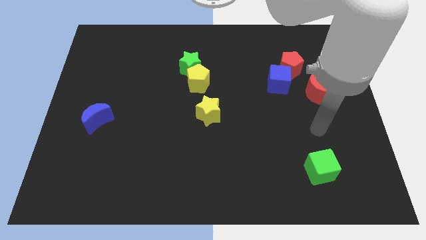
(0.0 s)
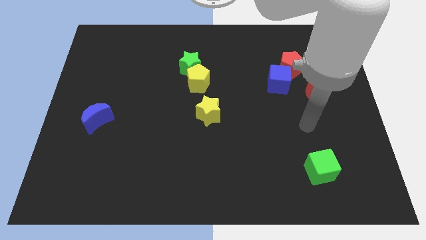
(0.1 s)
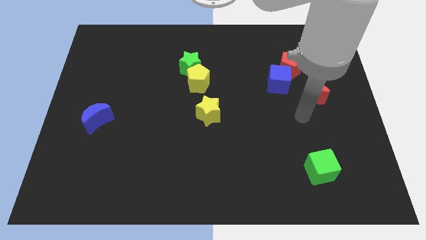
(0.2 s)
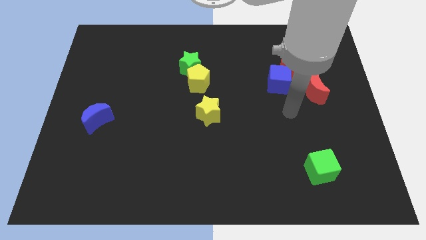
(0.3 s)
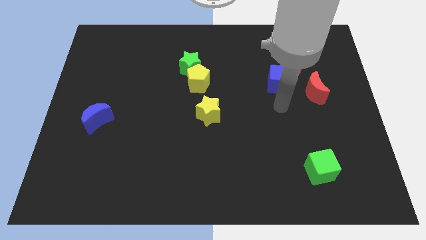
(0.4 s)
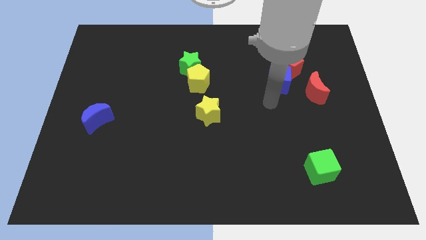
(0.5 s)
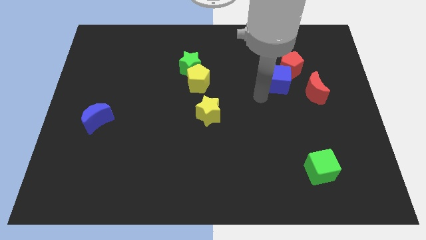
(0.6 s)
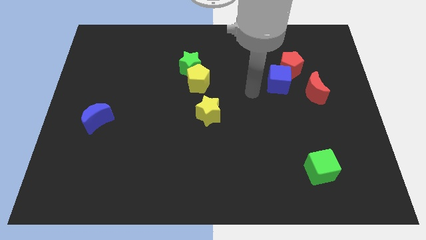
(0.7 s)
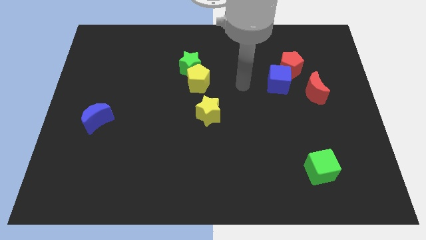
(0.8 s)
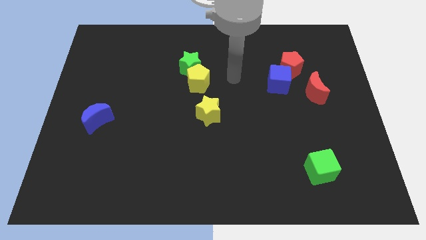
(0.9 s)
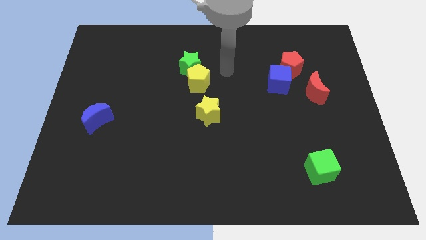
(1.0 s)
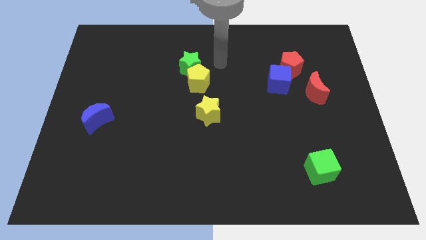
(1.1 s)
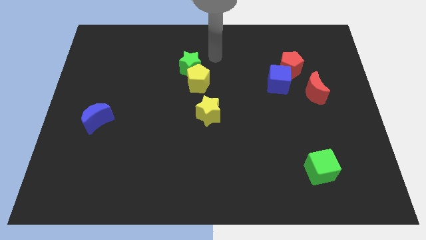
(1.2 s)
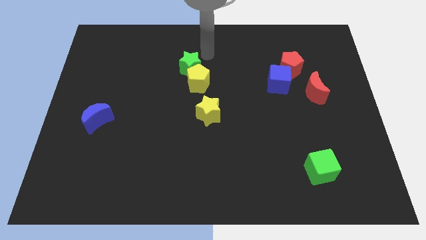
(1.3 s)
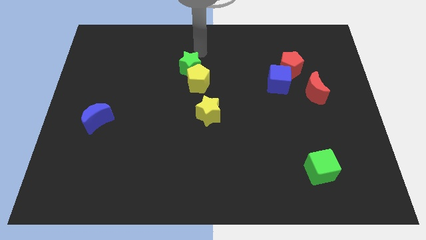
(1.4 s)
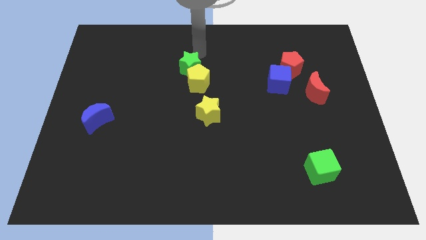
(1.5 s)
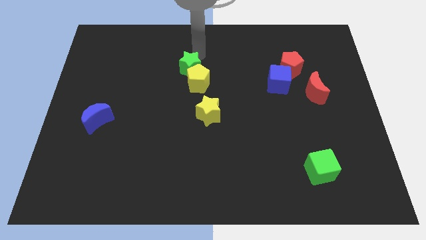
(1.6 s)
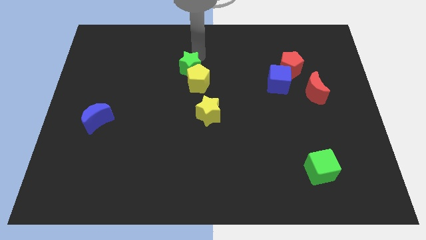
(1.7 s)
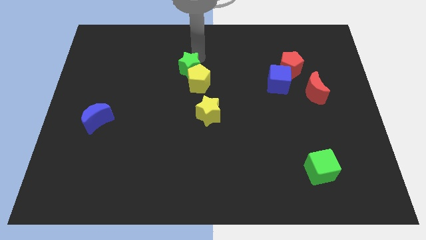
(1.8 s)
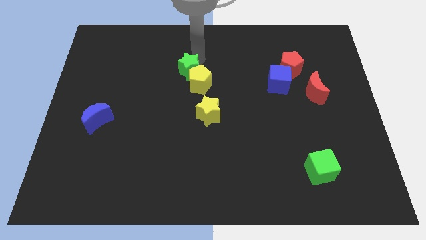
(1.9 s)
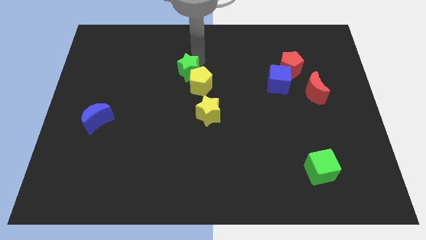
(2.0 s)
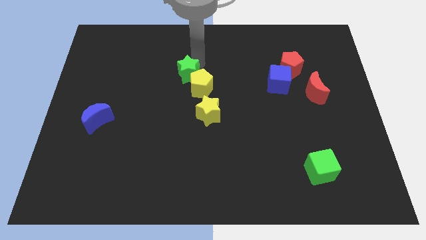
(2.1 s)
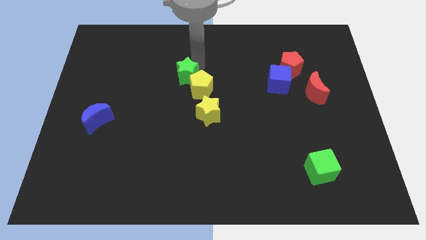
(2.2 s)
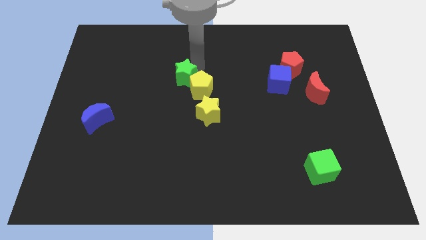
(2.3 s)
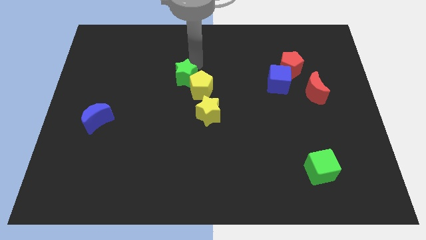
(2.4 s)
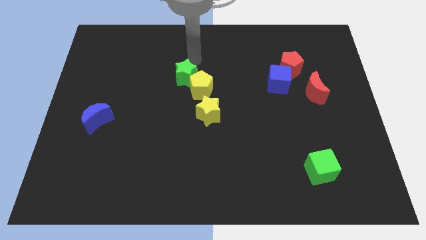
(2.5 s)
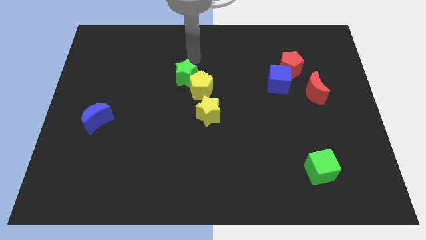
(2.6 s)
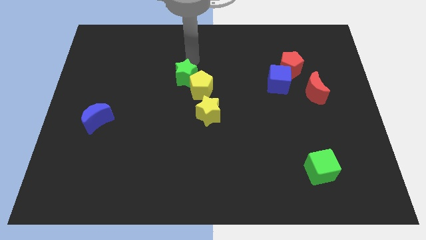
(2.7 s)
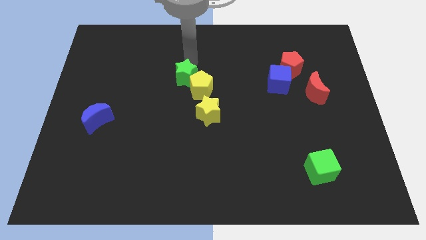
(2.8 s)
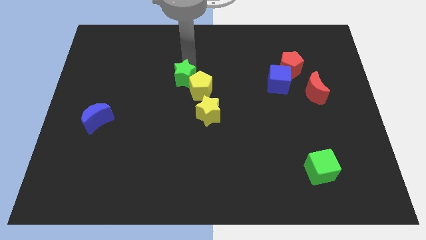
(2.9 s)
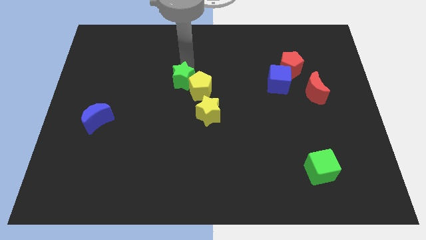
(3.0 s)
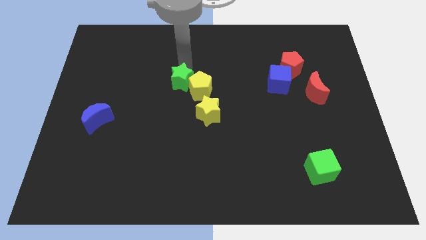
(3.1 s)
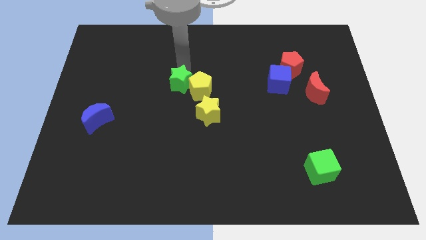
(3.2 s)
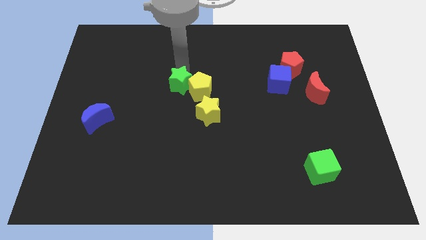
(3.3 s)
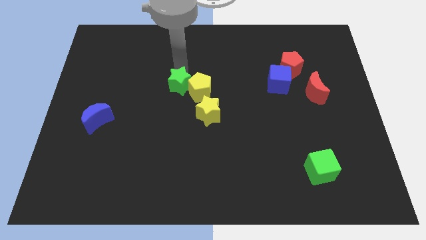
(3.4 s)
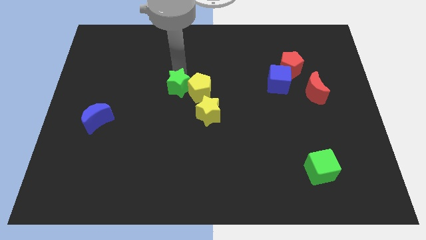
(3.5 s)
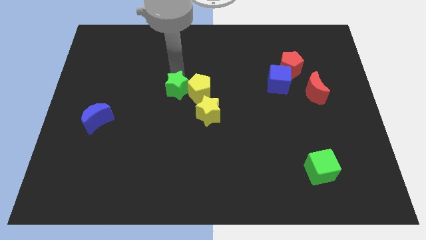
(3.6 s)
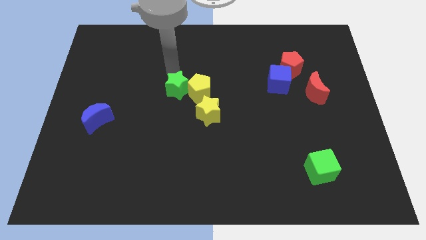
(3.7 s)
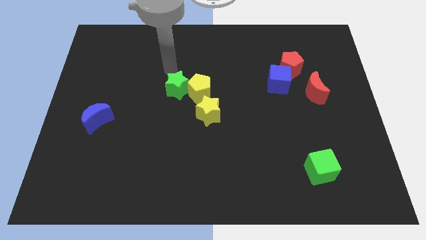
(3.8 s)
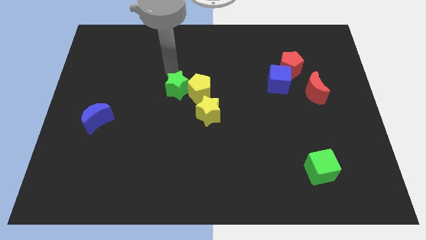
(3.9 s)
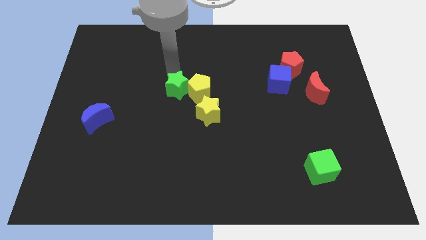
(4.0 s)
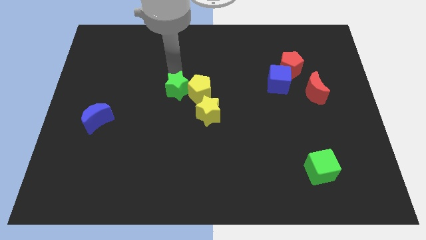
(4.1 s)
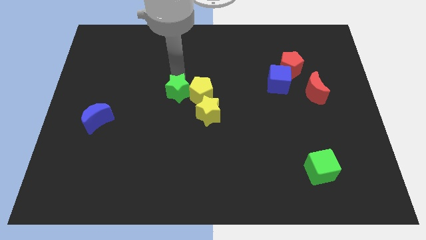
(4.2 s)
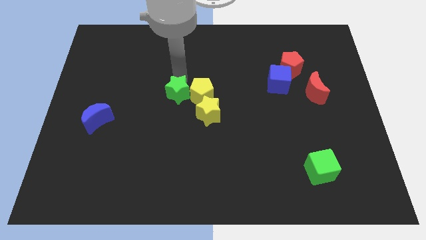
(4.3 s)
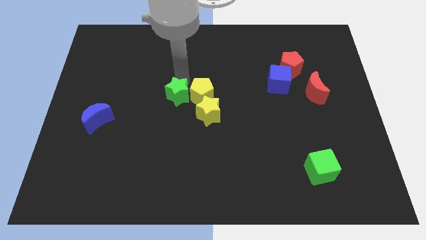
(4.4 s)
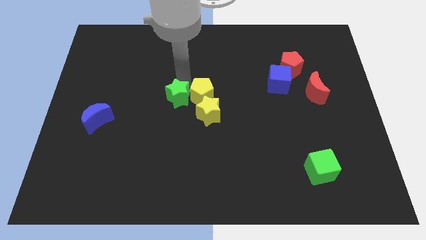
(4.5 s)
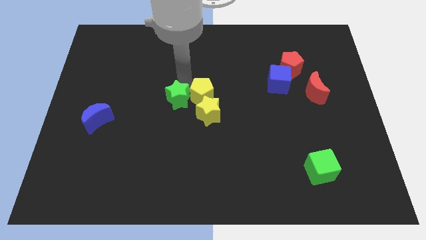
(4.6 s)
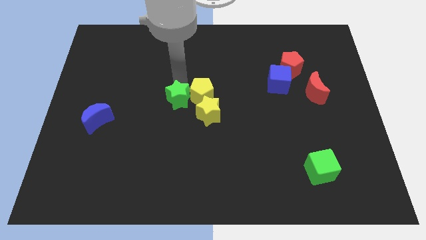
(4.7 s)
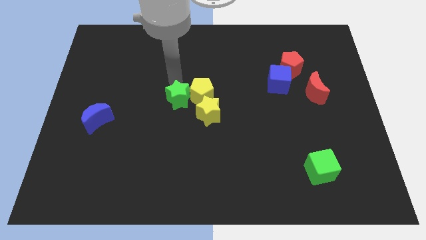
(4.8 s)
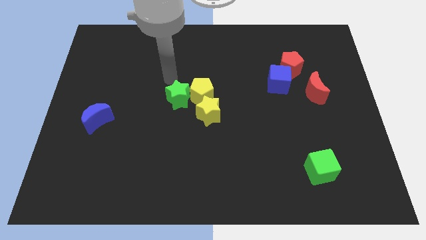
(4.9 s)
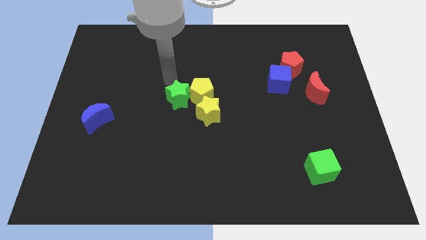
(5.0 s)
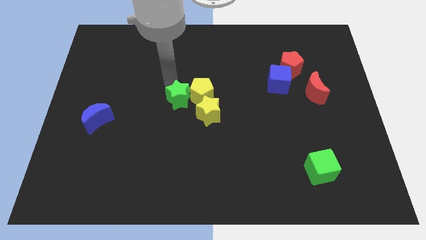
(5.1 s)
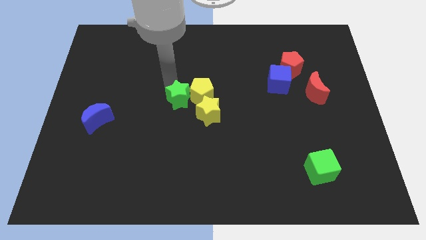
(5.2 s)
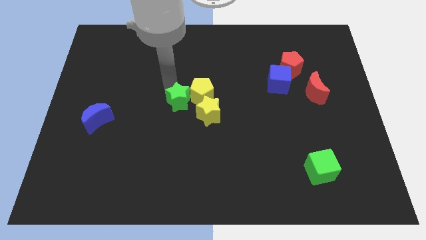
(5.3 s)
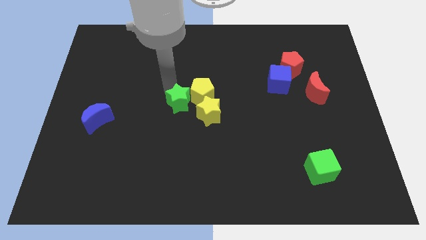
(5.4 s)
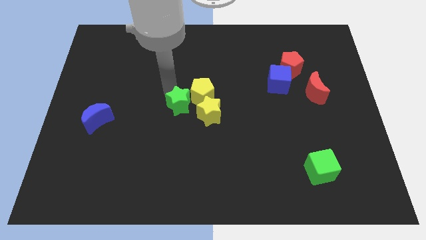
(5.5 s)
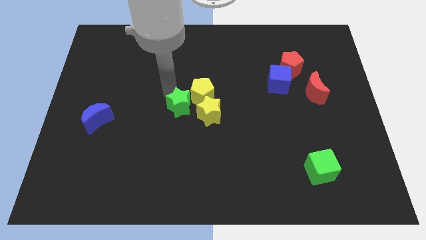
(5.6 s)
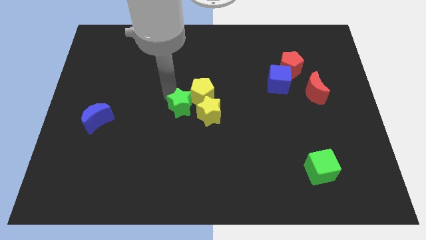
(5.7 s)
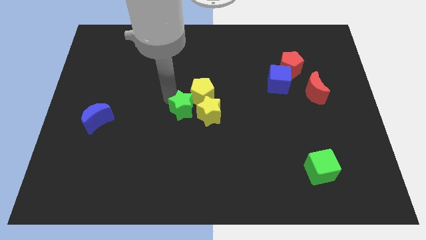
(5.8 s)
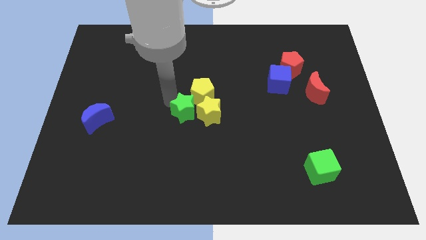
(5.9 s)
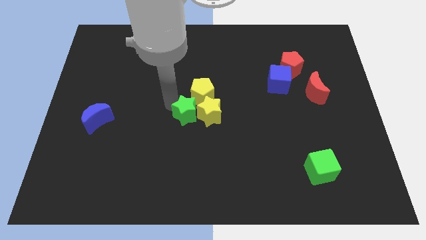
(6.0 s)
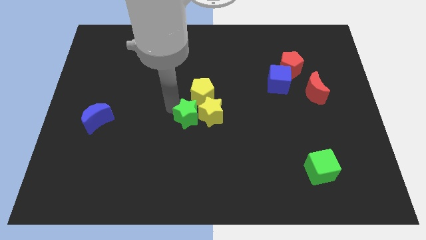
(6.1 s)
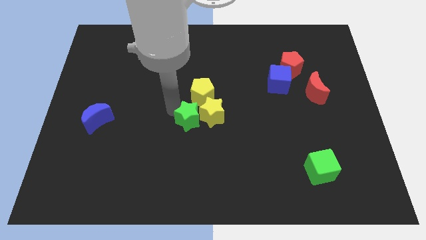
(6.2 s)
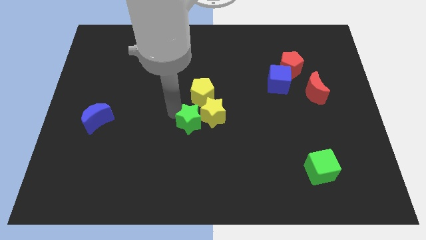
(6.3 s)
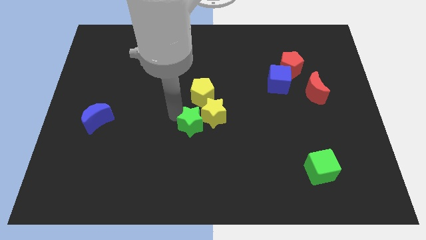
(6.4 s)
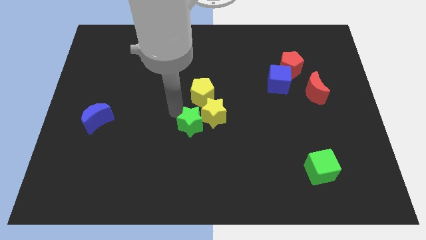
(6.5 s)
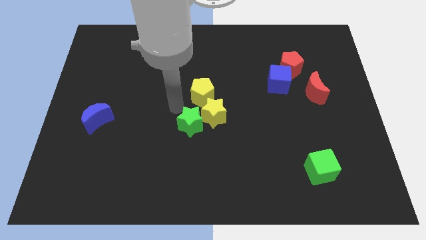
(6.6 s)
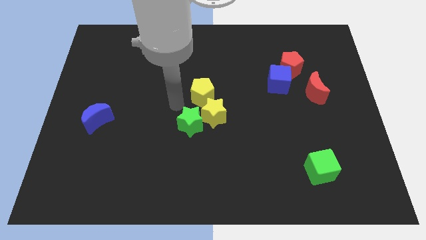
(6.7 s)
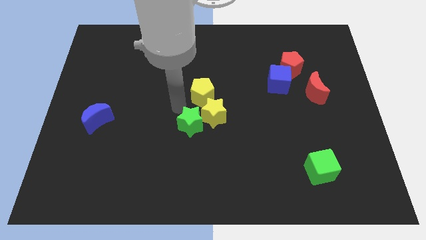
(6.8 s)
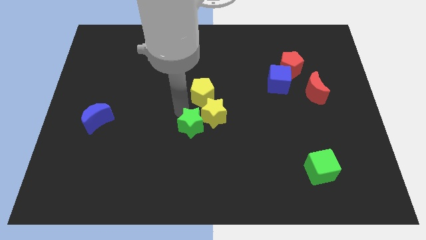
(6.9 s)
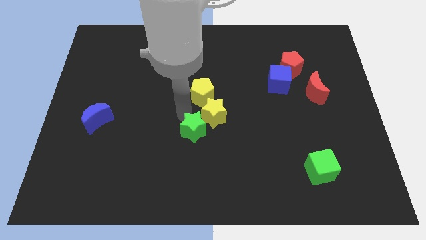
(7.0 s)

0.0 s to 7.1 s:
put the green star below the yellow star

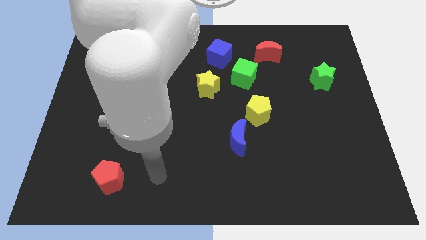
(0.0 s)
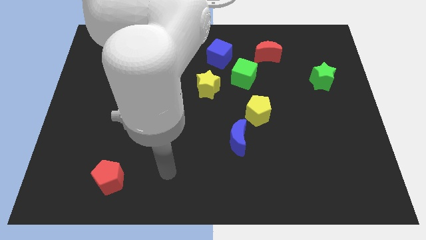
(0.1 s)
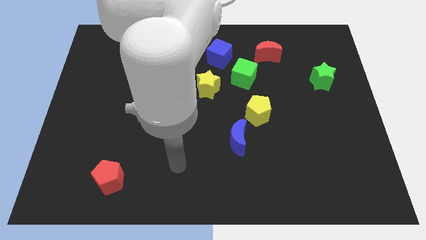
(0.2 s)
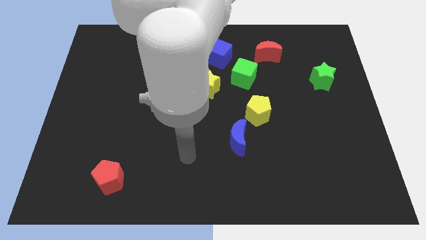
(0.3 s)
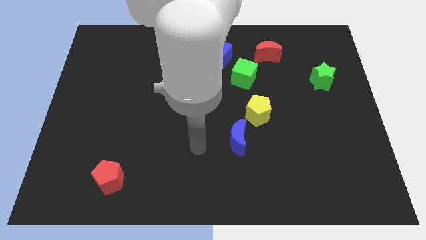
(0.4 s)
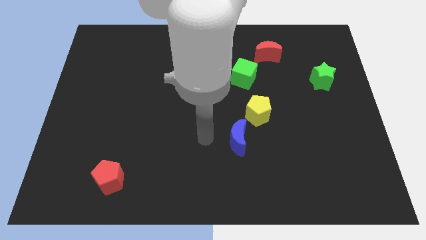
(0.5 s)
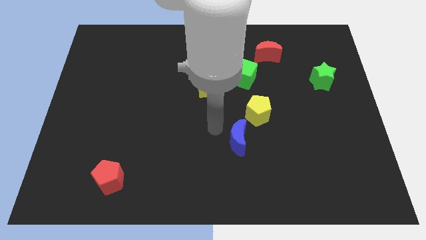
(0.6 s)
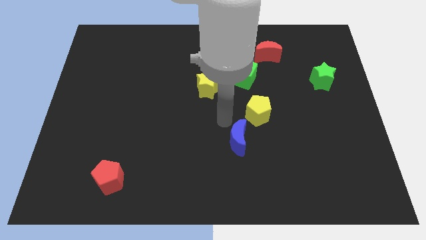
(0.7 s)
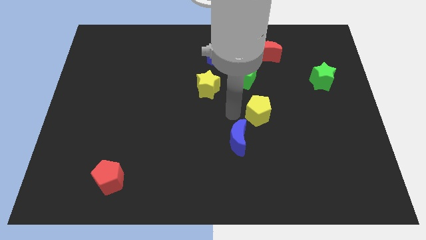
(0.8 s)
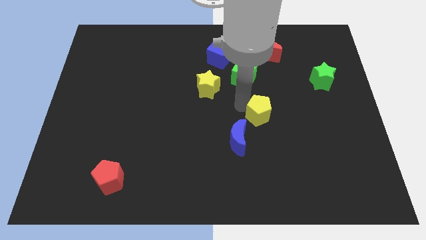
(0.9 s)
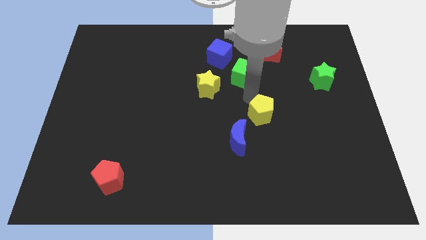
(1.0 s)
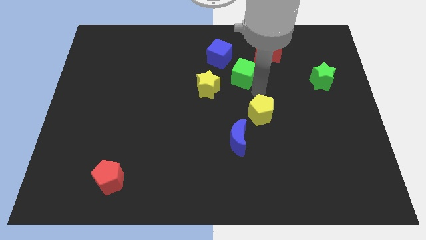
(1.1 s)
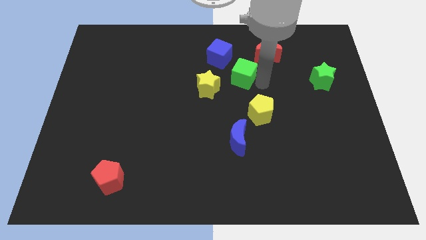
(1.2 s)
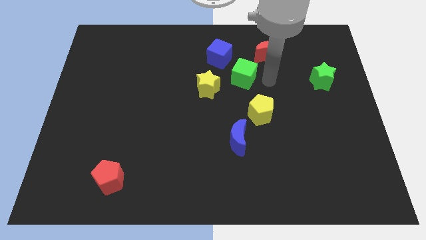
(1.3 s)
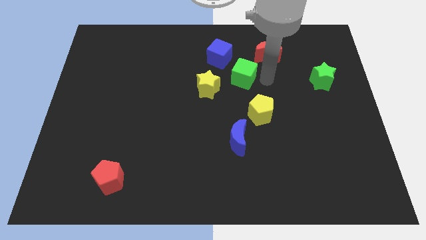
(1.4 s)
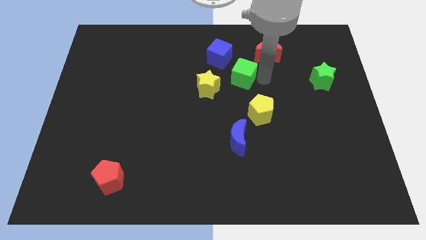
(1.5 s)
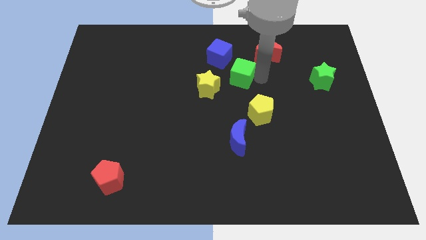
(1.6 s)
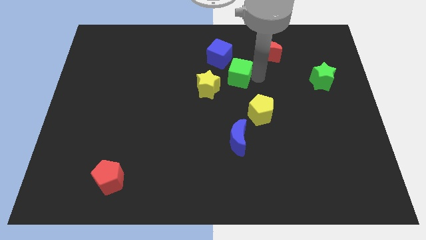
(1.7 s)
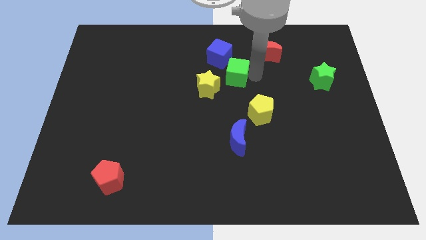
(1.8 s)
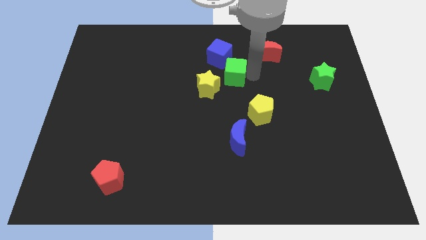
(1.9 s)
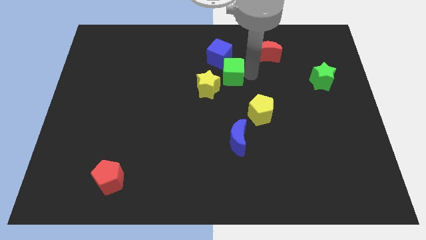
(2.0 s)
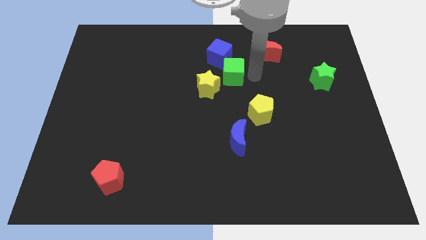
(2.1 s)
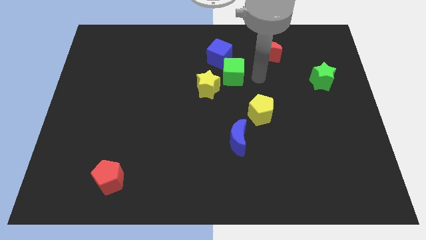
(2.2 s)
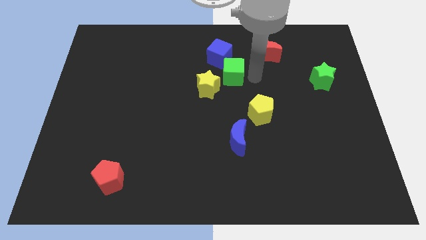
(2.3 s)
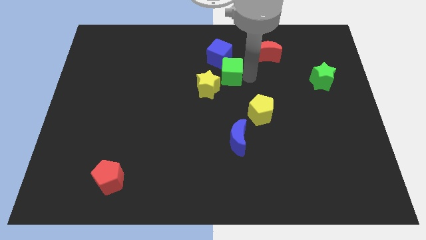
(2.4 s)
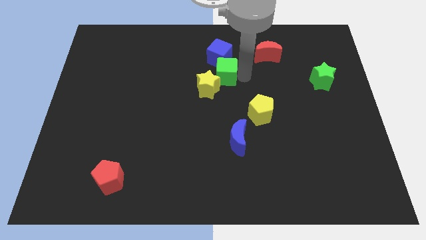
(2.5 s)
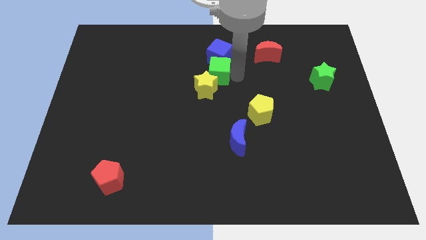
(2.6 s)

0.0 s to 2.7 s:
slide the green cube diagonally down and to the left of the blue cube
